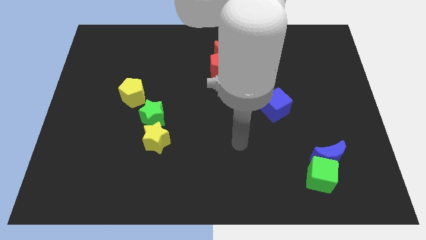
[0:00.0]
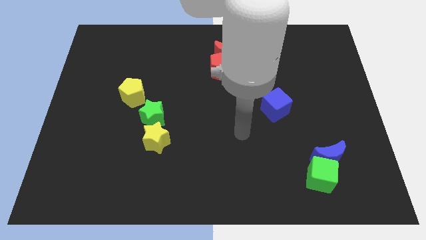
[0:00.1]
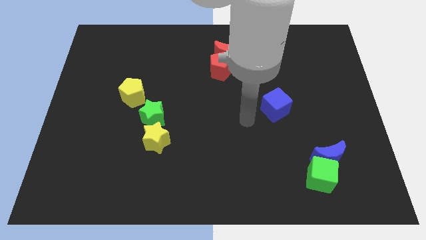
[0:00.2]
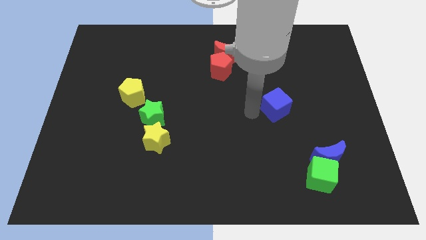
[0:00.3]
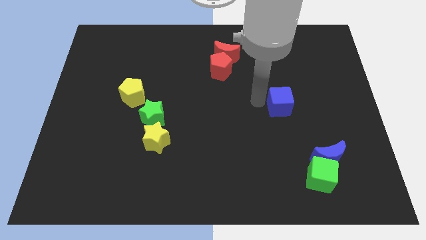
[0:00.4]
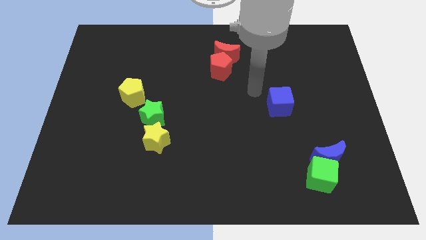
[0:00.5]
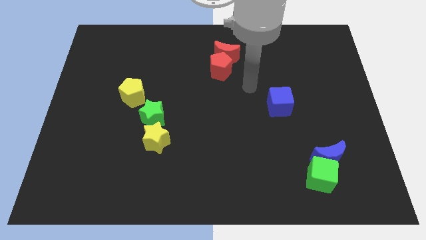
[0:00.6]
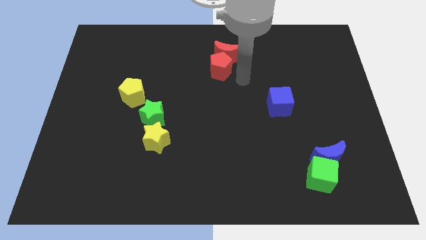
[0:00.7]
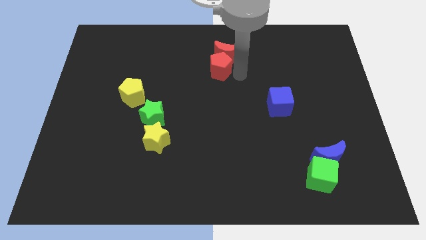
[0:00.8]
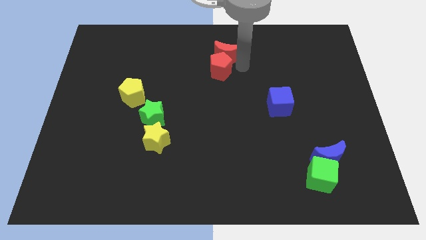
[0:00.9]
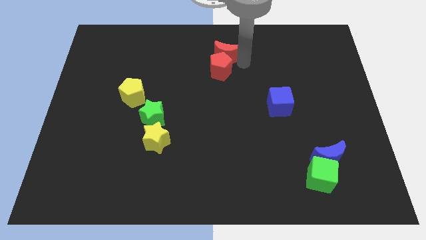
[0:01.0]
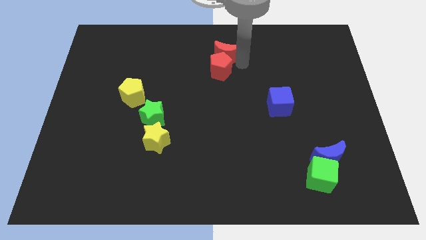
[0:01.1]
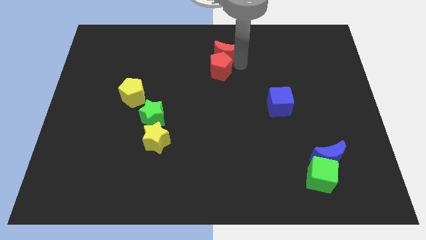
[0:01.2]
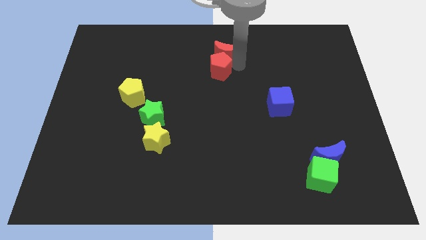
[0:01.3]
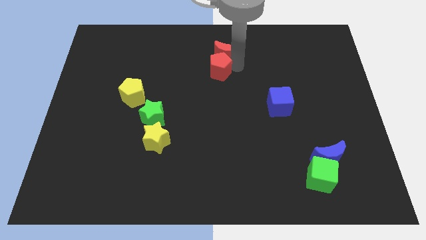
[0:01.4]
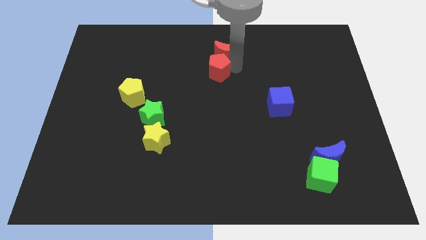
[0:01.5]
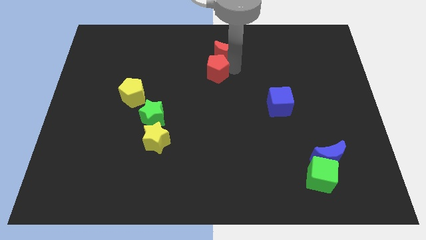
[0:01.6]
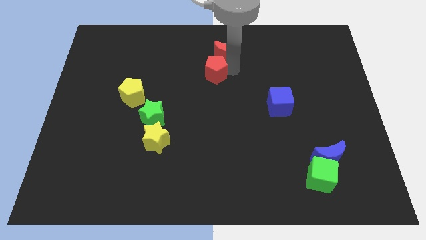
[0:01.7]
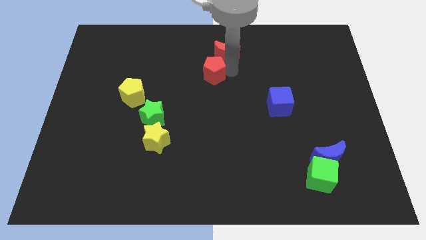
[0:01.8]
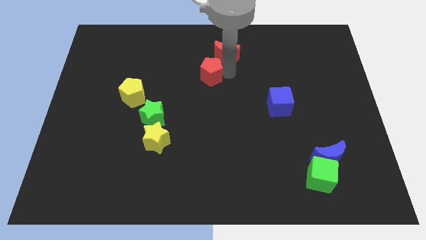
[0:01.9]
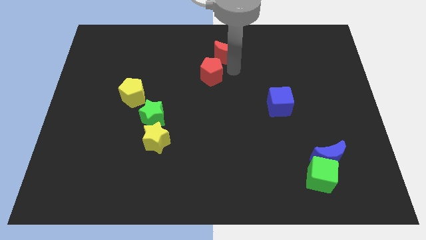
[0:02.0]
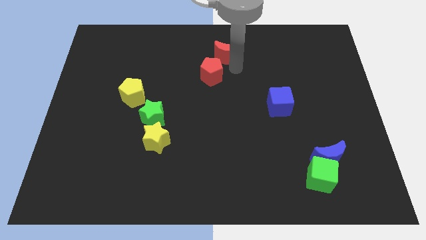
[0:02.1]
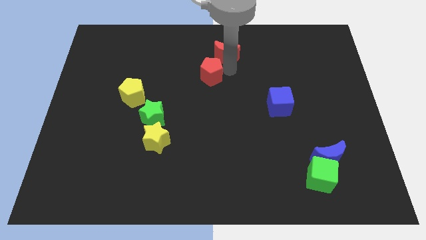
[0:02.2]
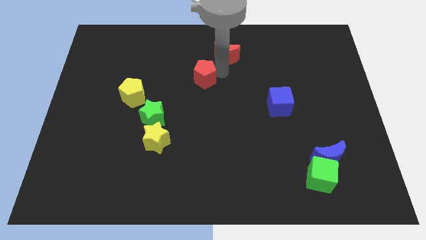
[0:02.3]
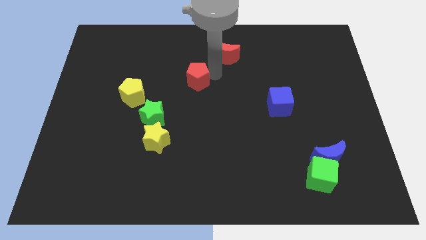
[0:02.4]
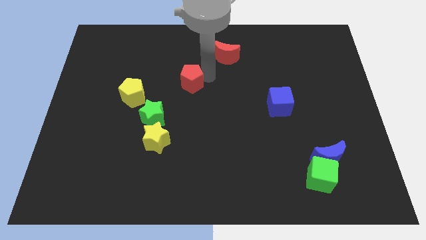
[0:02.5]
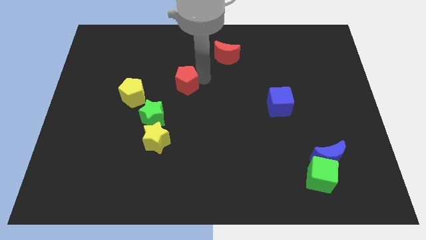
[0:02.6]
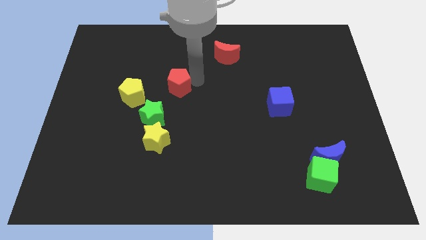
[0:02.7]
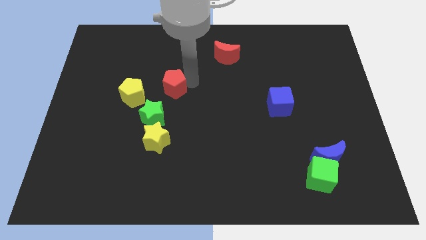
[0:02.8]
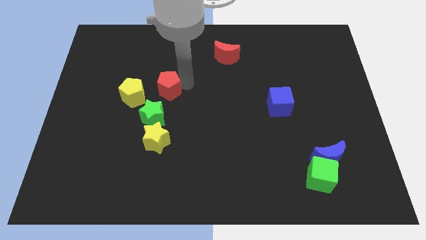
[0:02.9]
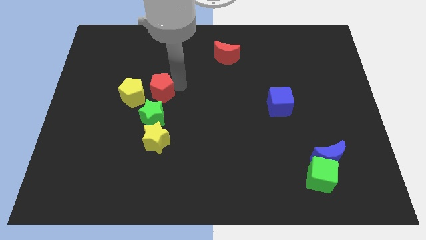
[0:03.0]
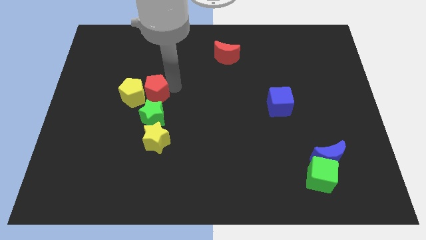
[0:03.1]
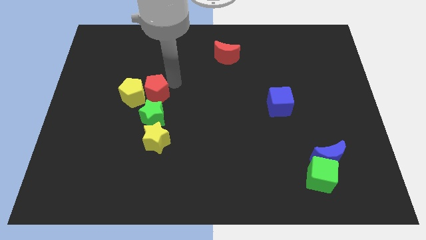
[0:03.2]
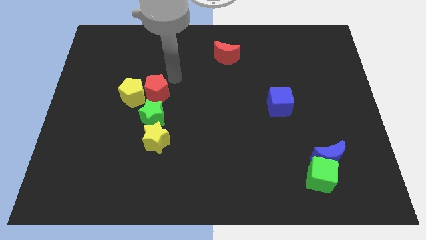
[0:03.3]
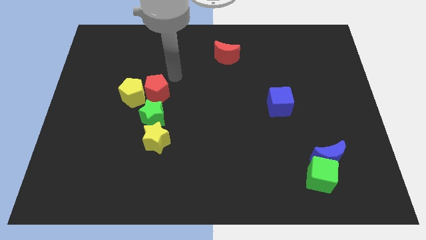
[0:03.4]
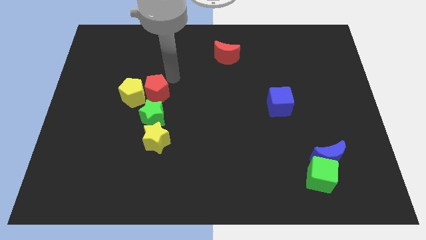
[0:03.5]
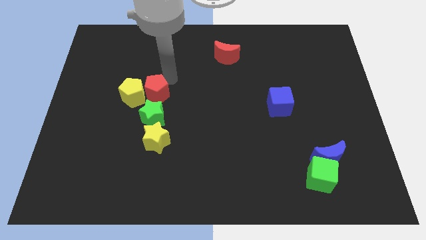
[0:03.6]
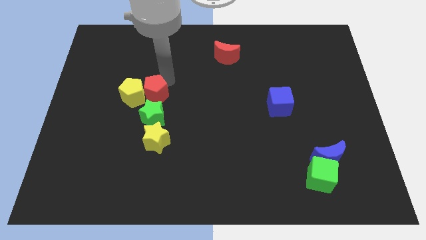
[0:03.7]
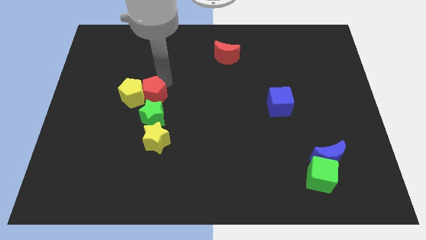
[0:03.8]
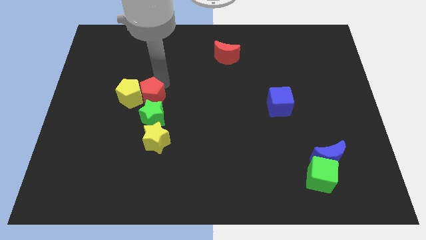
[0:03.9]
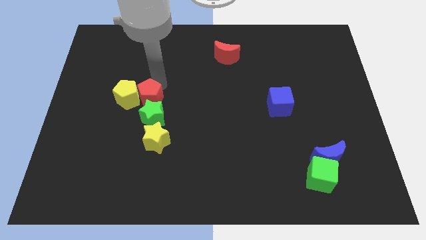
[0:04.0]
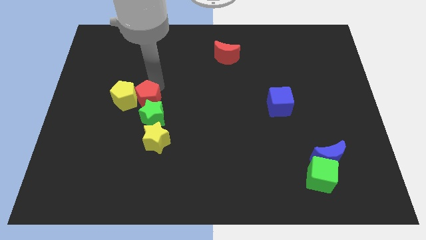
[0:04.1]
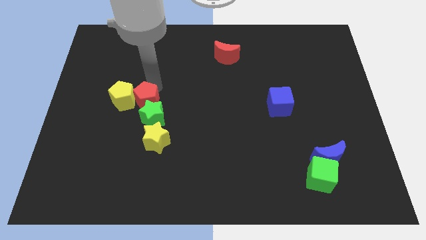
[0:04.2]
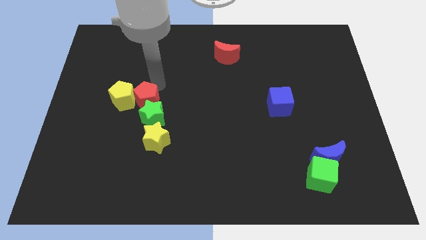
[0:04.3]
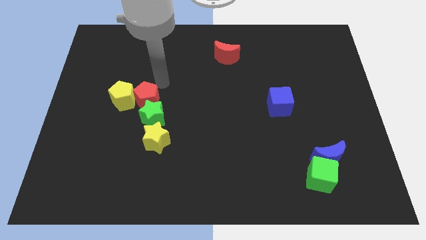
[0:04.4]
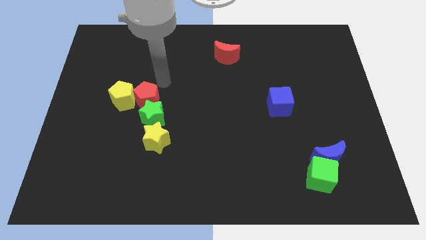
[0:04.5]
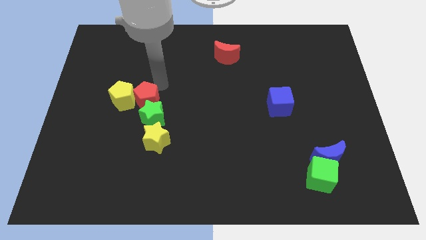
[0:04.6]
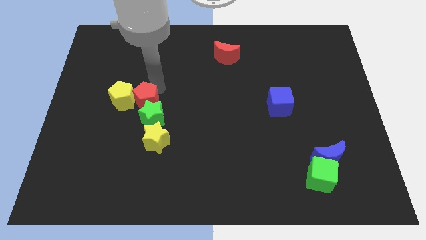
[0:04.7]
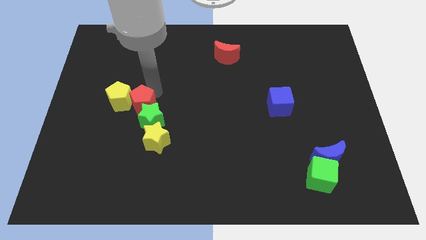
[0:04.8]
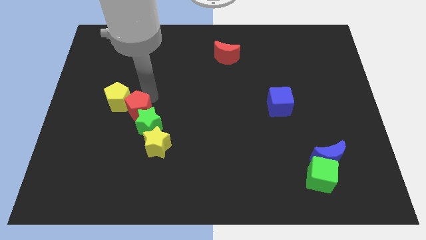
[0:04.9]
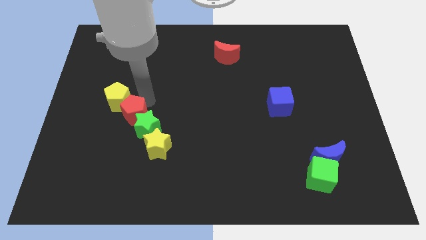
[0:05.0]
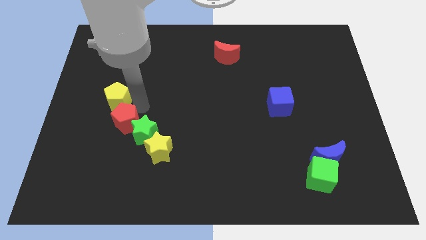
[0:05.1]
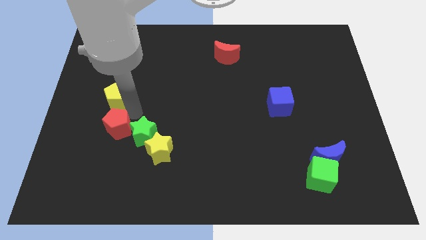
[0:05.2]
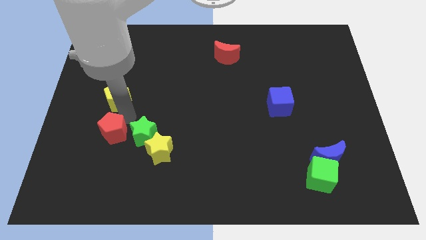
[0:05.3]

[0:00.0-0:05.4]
put the red pentagon to the left of the yellow star

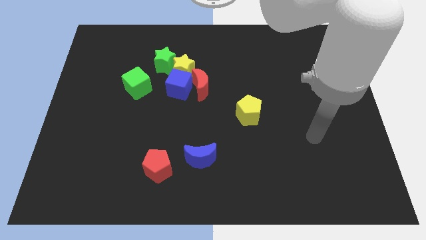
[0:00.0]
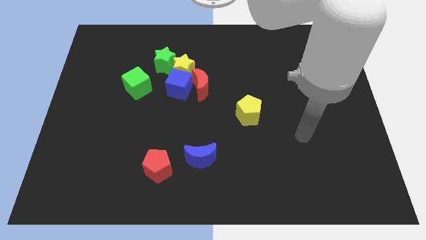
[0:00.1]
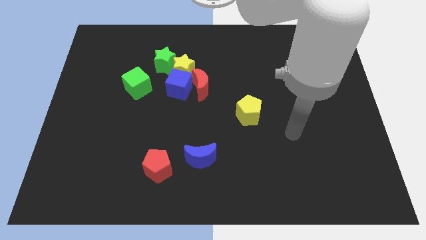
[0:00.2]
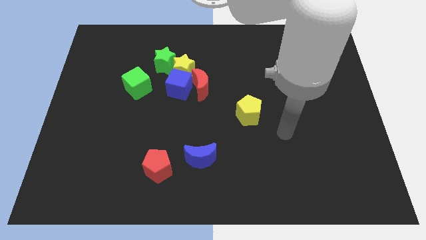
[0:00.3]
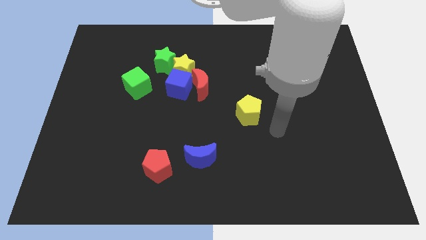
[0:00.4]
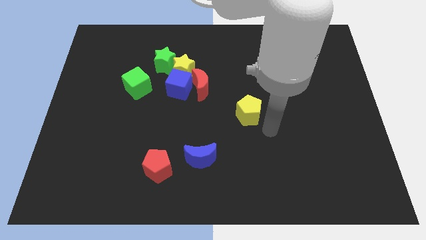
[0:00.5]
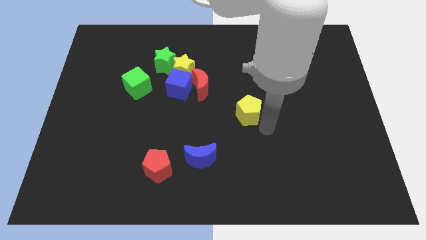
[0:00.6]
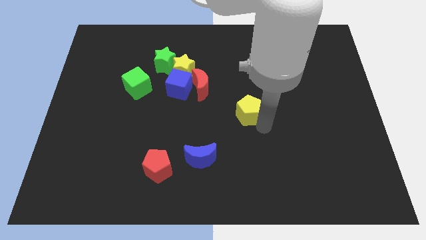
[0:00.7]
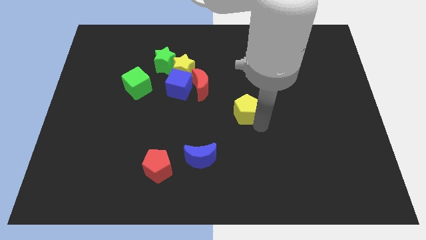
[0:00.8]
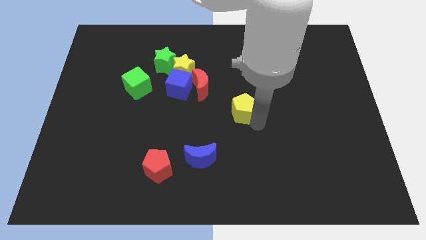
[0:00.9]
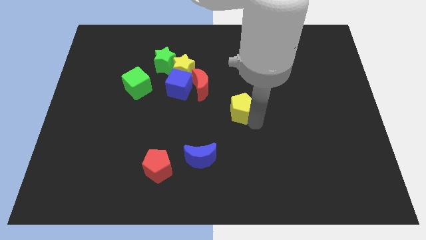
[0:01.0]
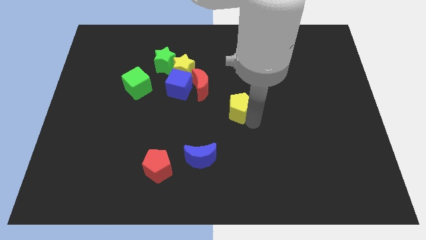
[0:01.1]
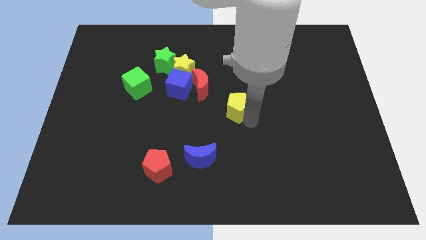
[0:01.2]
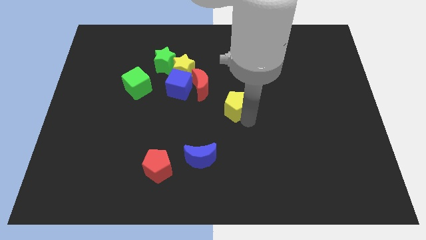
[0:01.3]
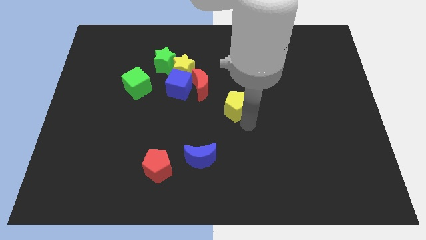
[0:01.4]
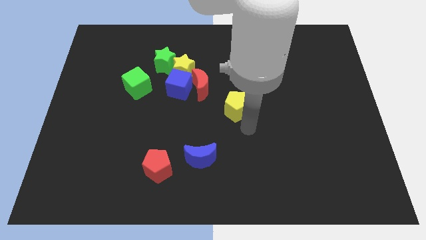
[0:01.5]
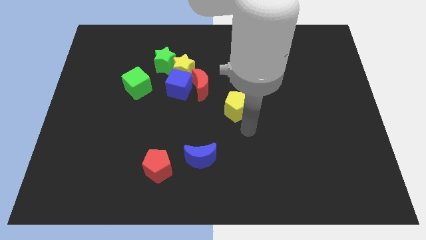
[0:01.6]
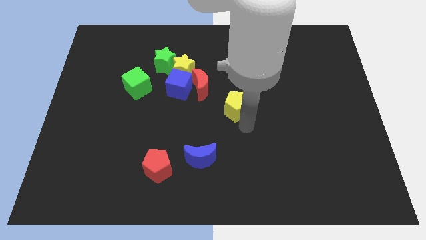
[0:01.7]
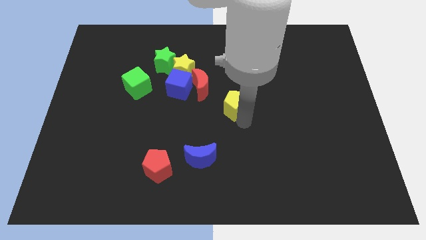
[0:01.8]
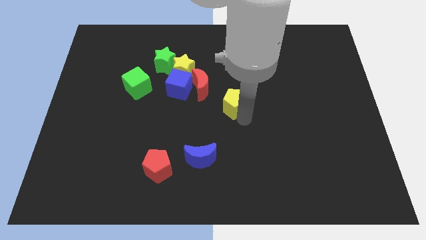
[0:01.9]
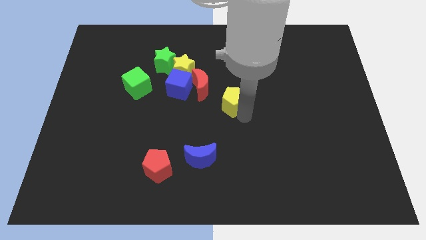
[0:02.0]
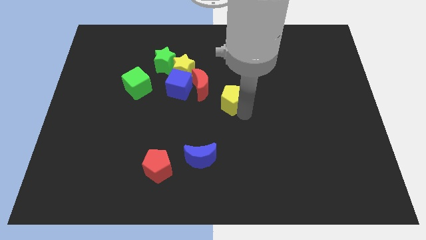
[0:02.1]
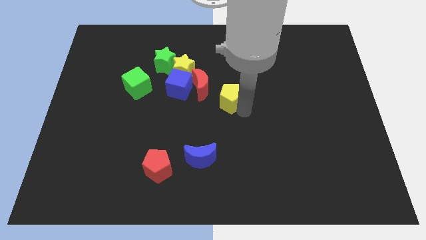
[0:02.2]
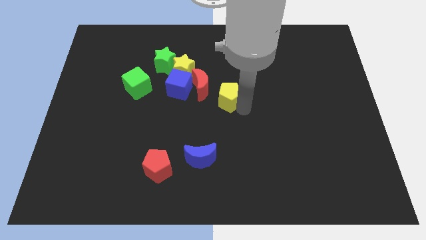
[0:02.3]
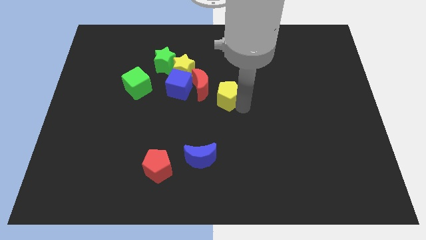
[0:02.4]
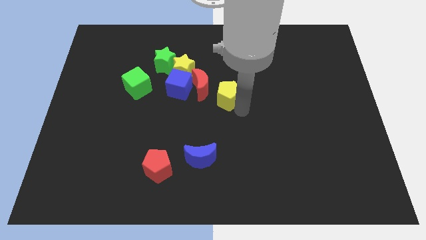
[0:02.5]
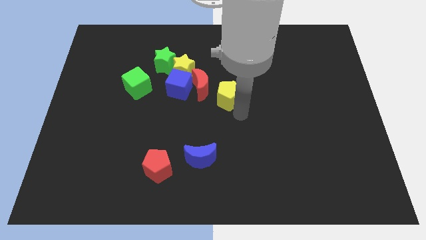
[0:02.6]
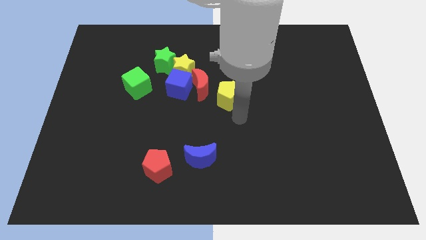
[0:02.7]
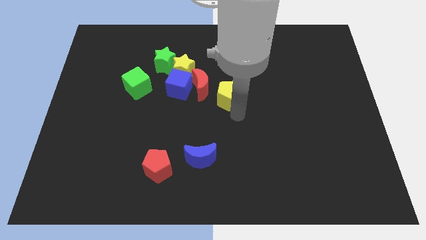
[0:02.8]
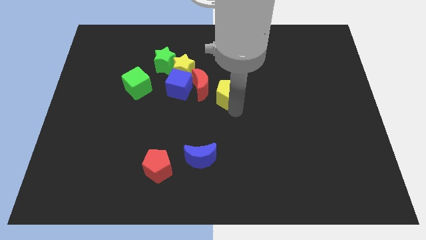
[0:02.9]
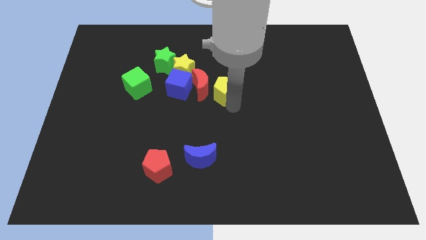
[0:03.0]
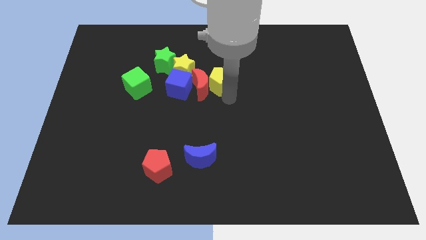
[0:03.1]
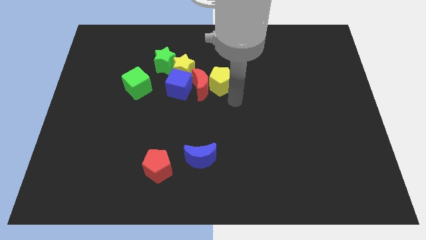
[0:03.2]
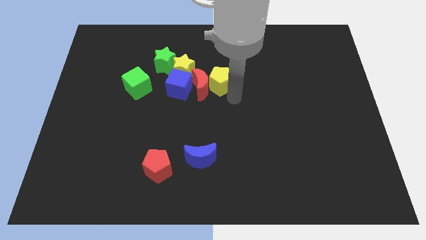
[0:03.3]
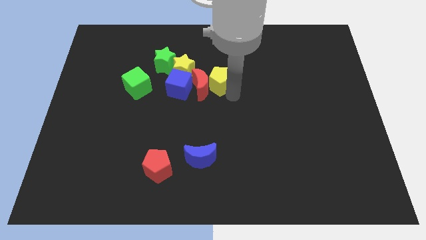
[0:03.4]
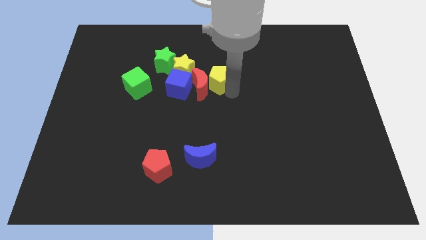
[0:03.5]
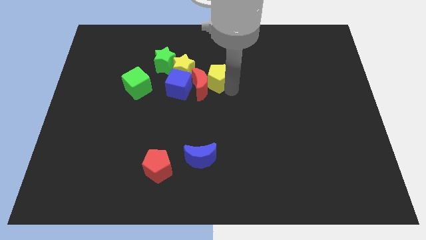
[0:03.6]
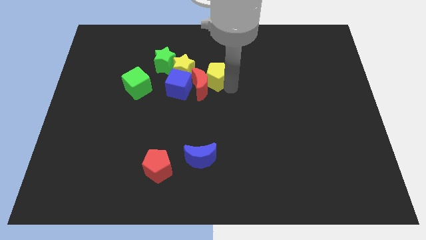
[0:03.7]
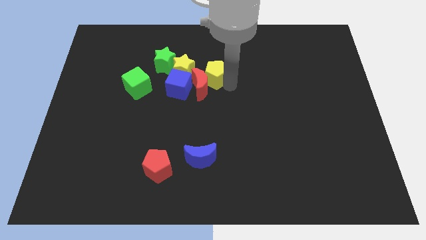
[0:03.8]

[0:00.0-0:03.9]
push the yellow pentagon to the right side of the green star
